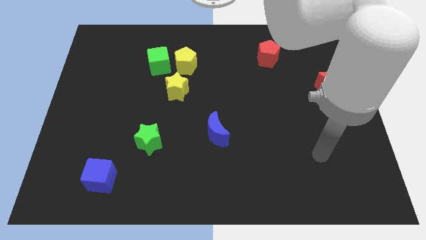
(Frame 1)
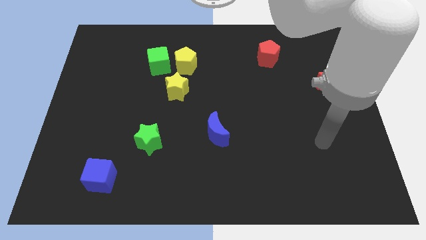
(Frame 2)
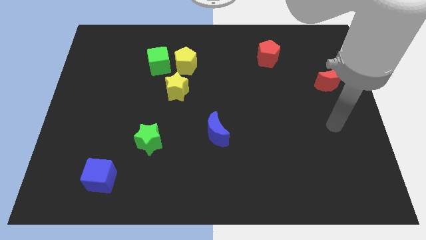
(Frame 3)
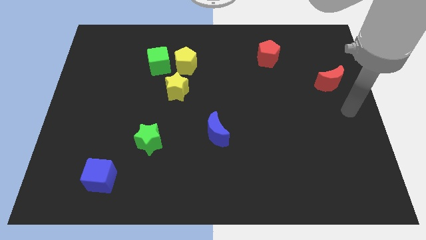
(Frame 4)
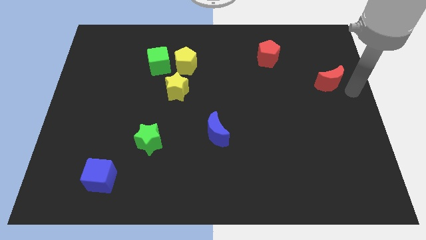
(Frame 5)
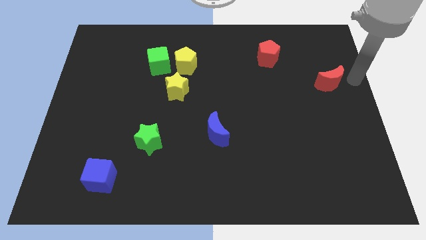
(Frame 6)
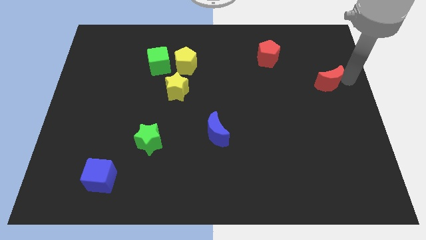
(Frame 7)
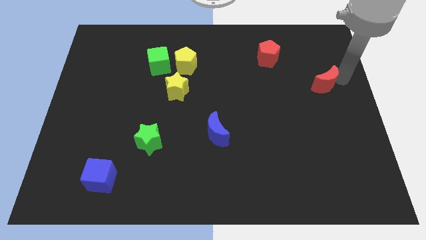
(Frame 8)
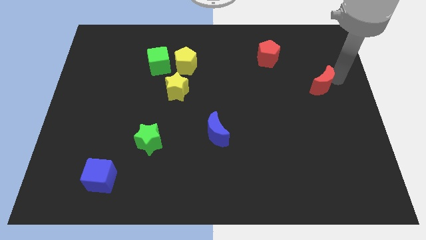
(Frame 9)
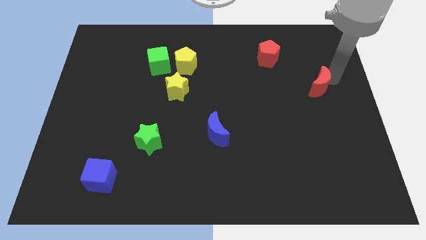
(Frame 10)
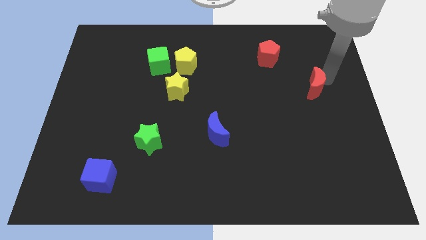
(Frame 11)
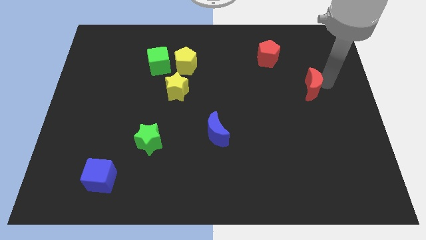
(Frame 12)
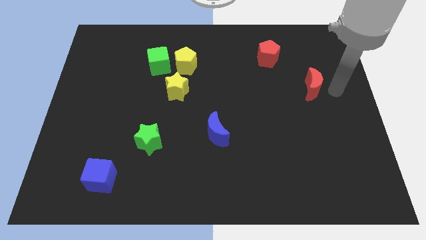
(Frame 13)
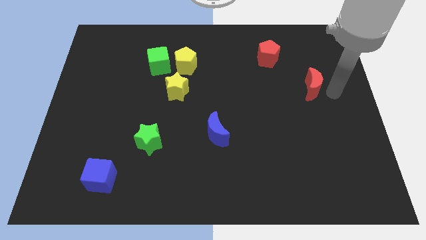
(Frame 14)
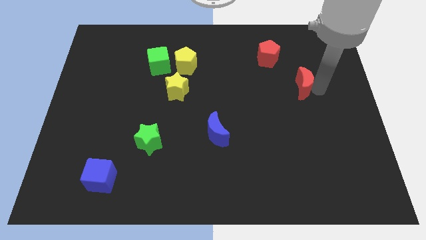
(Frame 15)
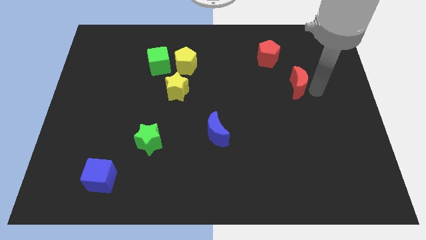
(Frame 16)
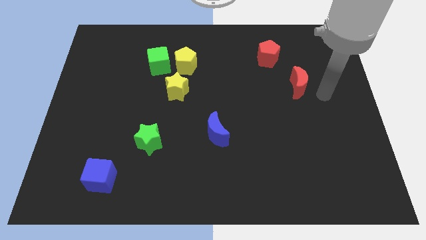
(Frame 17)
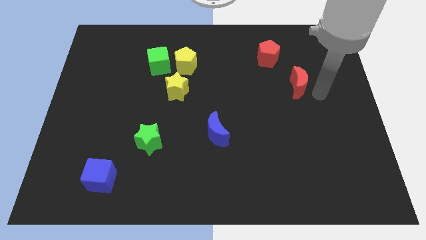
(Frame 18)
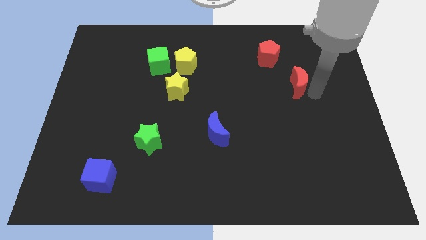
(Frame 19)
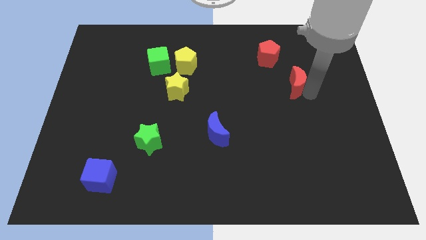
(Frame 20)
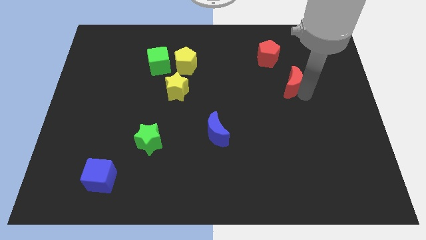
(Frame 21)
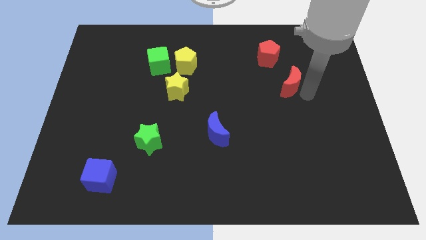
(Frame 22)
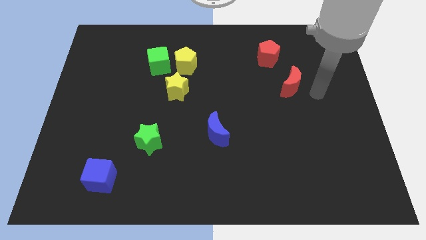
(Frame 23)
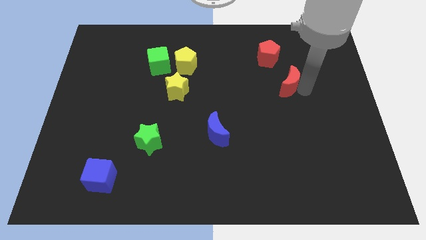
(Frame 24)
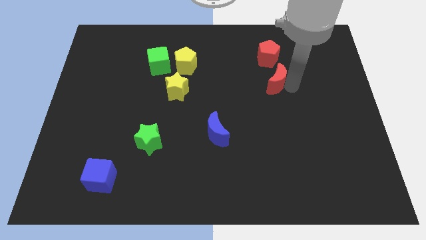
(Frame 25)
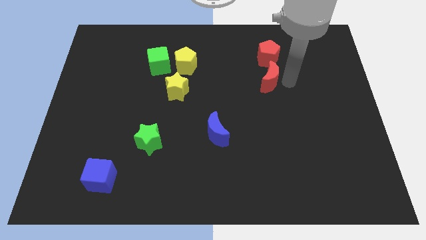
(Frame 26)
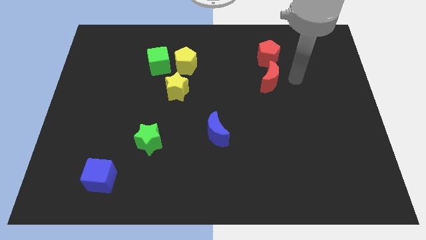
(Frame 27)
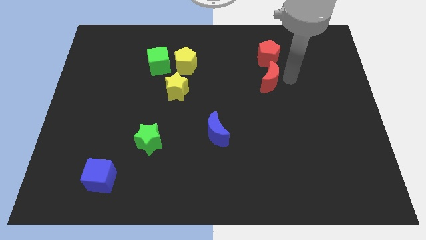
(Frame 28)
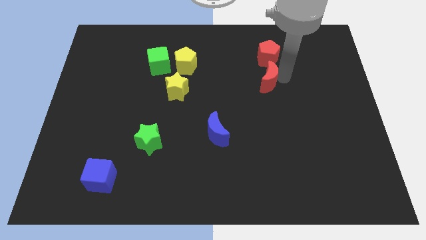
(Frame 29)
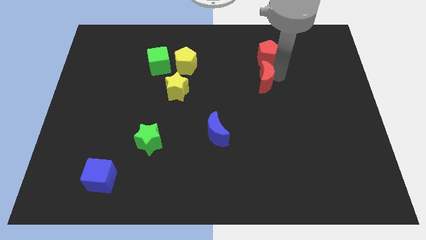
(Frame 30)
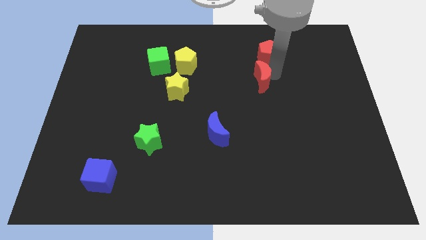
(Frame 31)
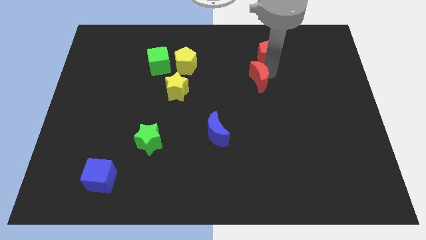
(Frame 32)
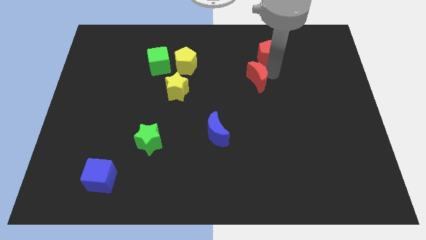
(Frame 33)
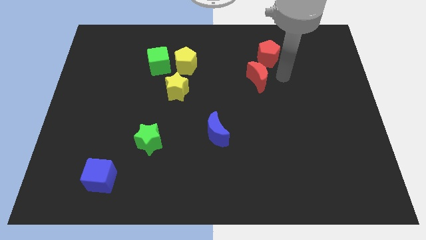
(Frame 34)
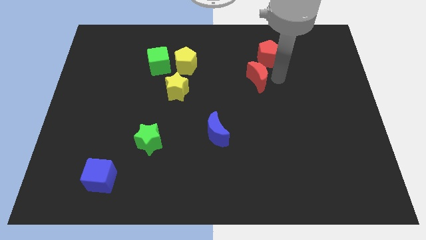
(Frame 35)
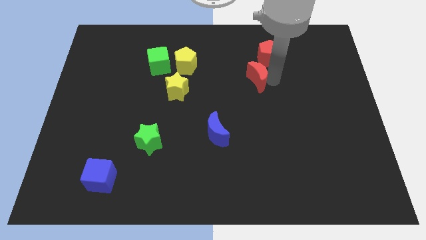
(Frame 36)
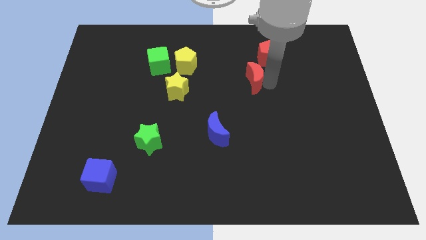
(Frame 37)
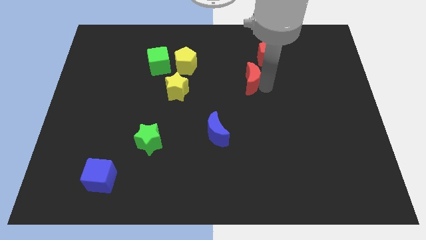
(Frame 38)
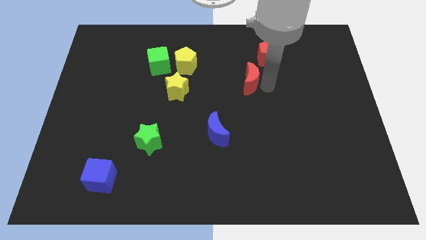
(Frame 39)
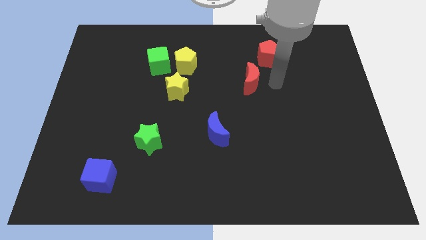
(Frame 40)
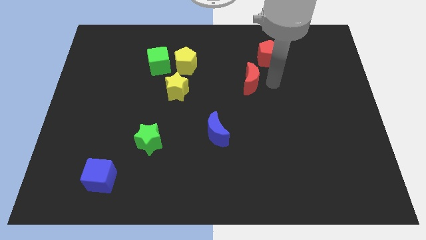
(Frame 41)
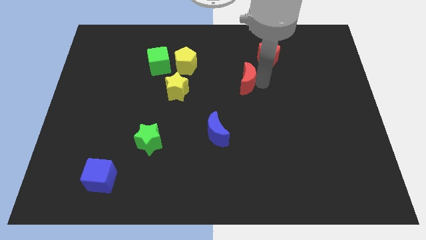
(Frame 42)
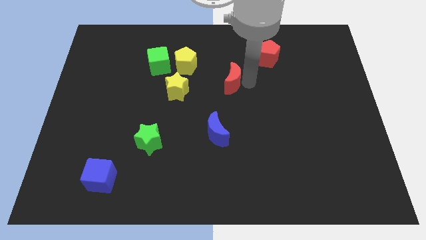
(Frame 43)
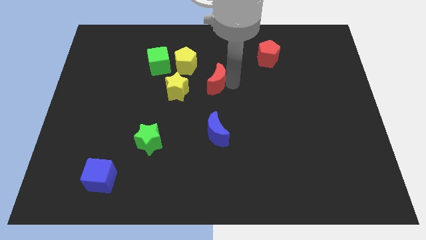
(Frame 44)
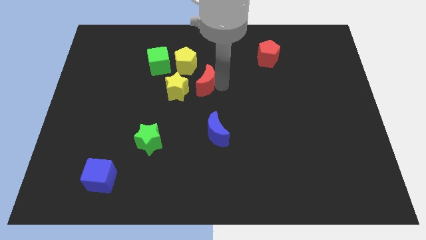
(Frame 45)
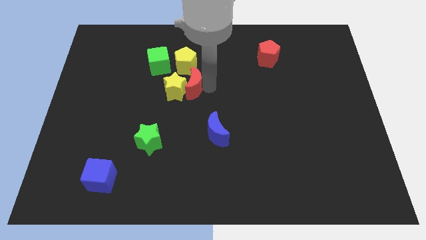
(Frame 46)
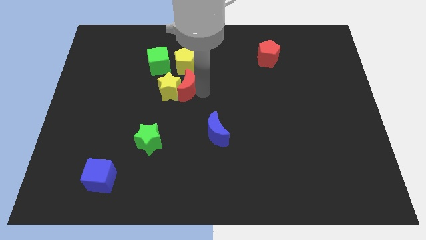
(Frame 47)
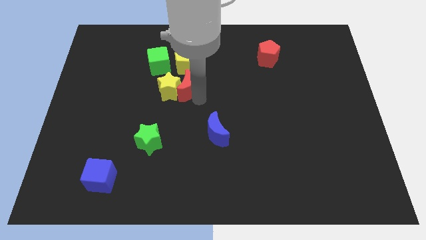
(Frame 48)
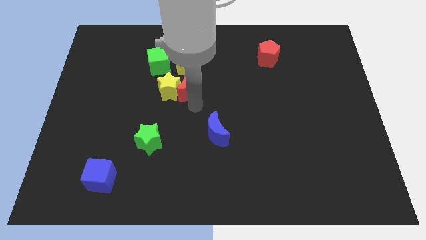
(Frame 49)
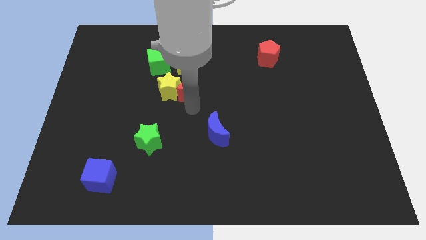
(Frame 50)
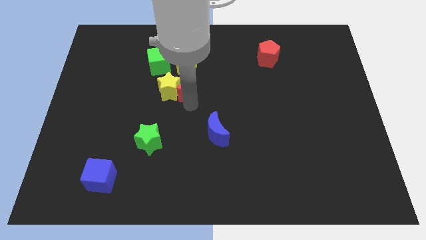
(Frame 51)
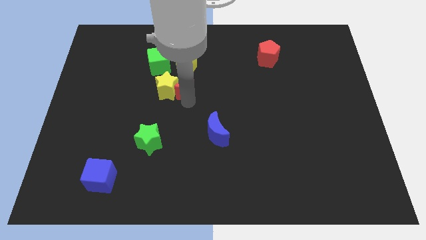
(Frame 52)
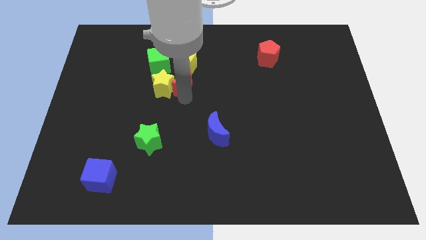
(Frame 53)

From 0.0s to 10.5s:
push the red moon to the bottom left side of the yellow pentagon
